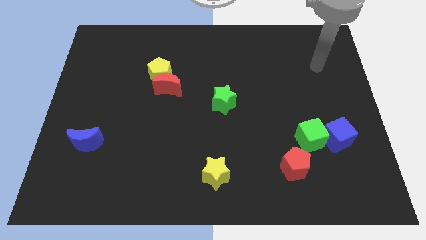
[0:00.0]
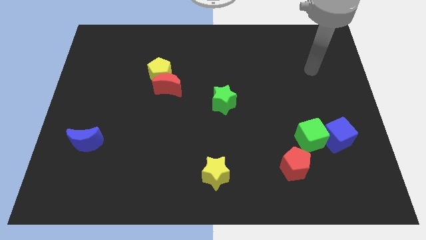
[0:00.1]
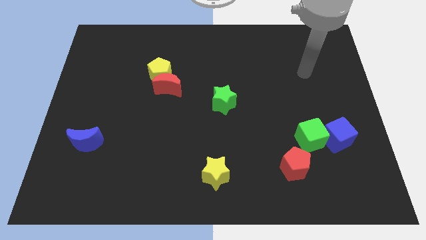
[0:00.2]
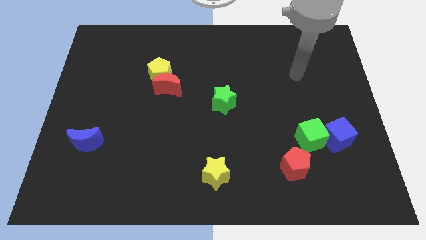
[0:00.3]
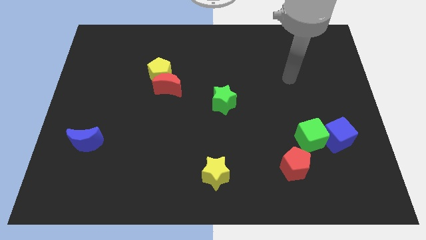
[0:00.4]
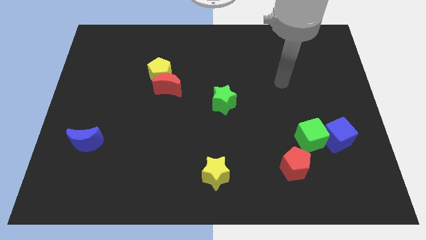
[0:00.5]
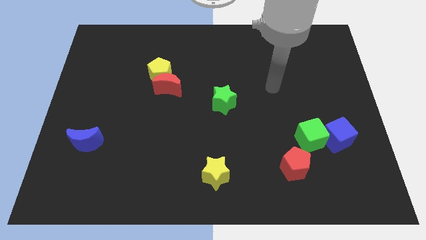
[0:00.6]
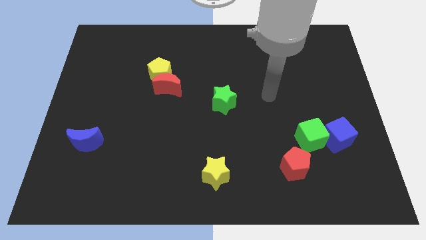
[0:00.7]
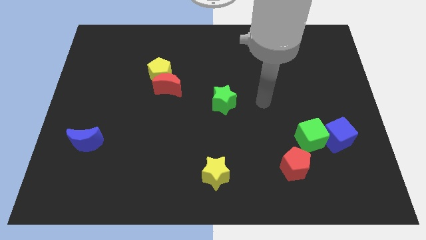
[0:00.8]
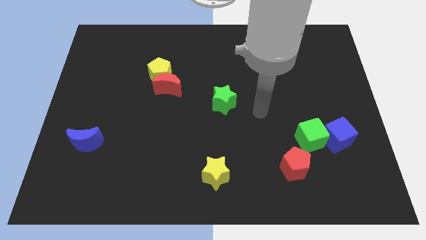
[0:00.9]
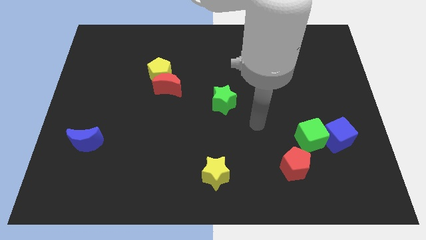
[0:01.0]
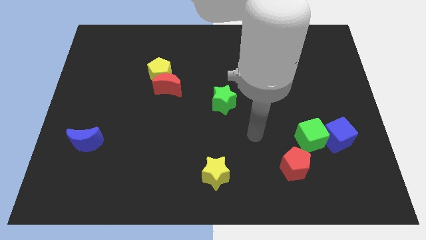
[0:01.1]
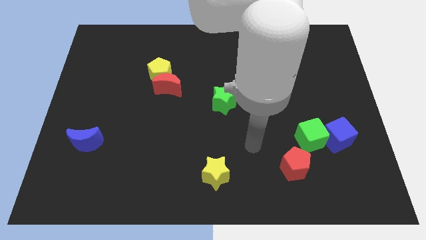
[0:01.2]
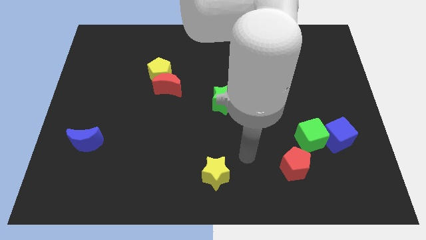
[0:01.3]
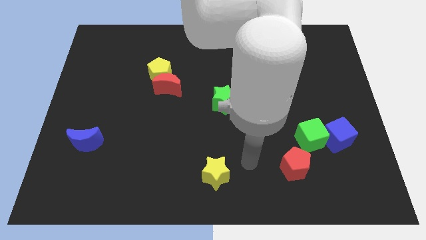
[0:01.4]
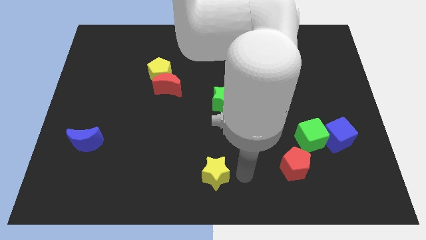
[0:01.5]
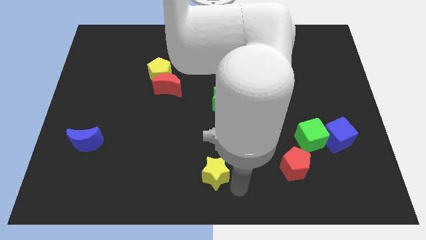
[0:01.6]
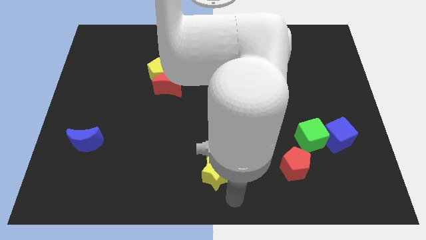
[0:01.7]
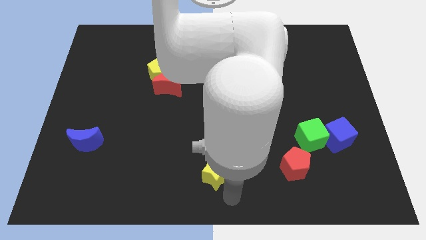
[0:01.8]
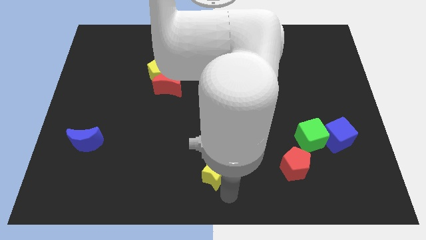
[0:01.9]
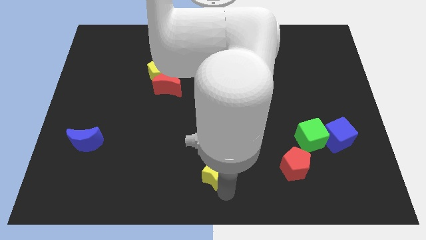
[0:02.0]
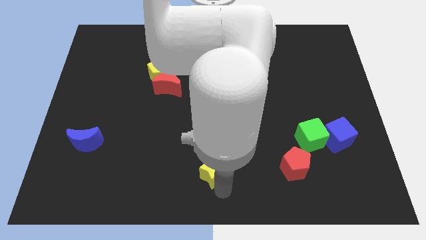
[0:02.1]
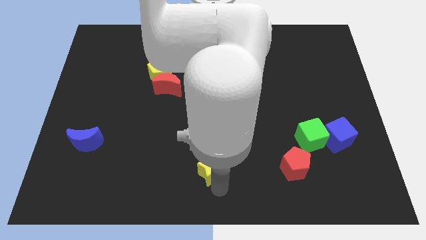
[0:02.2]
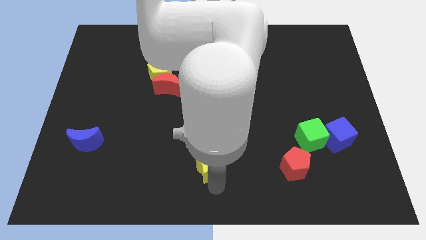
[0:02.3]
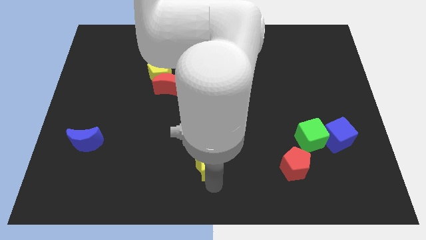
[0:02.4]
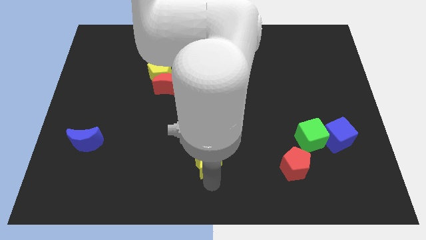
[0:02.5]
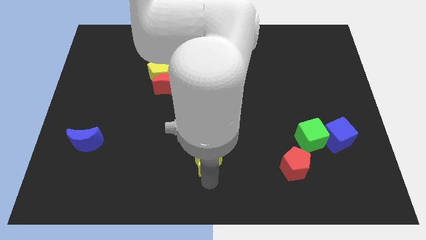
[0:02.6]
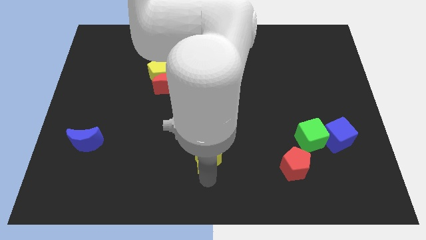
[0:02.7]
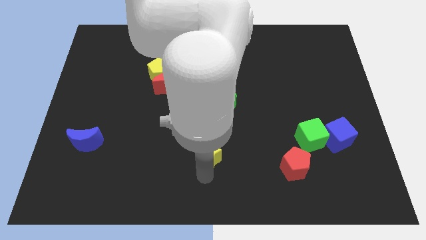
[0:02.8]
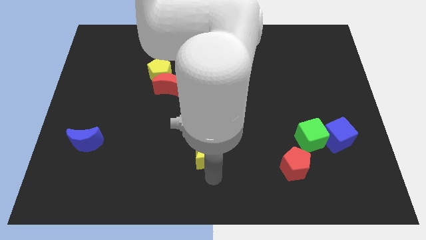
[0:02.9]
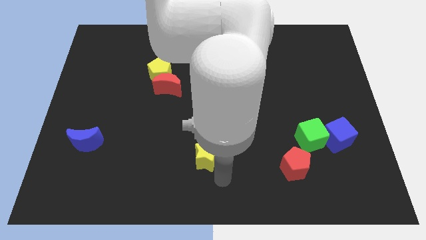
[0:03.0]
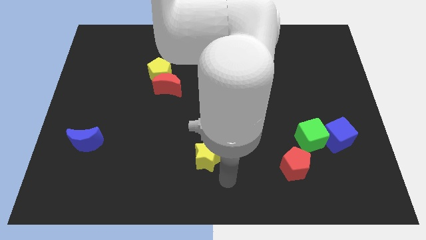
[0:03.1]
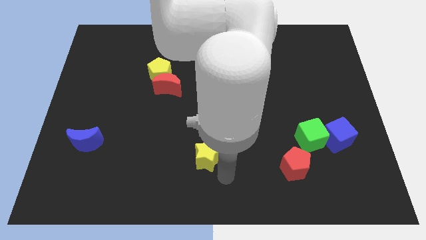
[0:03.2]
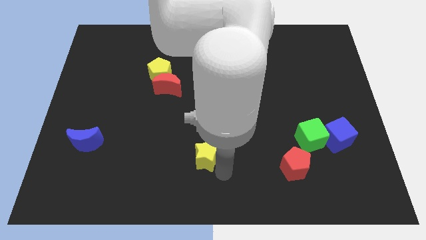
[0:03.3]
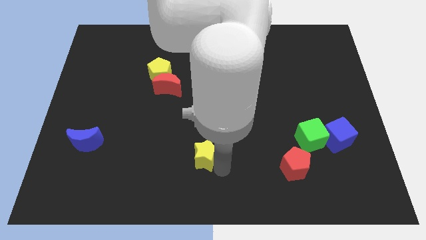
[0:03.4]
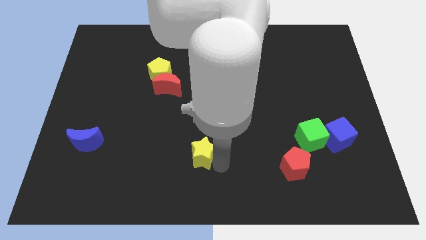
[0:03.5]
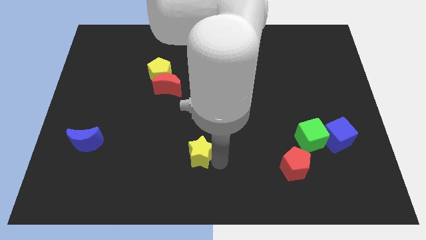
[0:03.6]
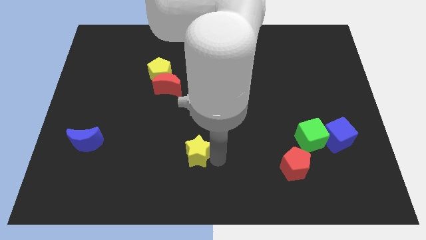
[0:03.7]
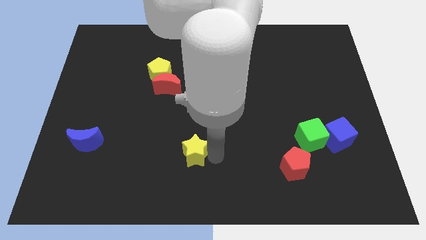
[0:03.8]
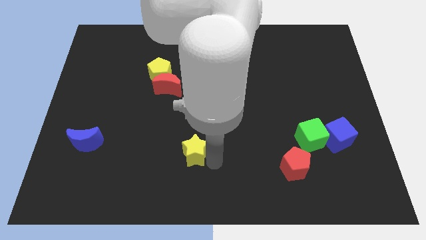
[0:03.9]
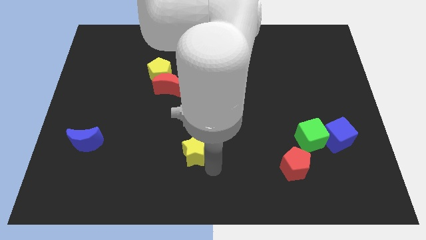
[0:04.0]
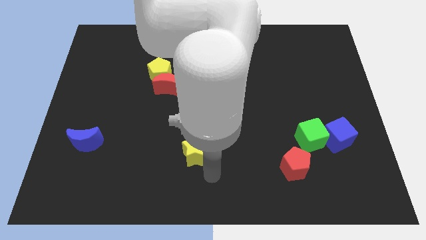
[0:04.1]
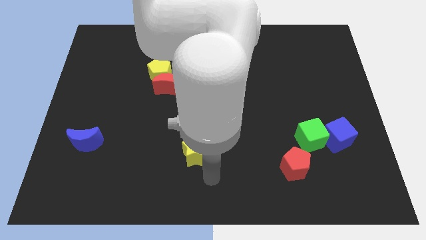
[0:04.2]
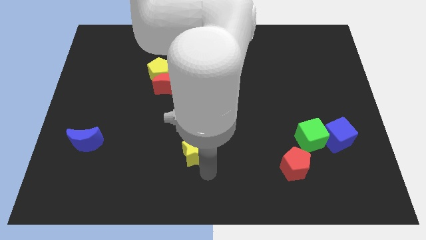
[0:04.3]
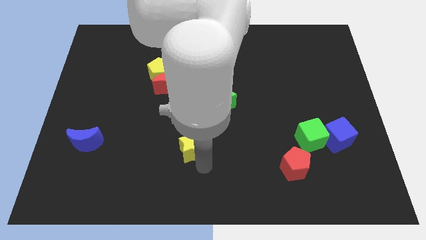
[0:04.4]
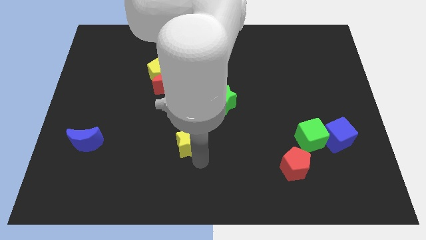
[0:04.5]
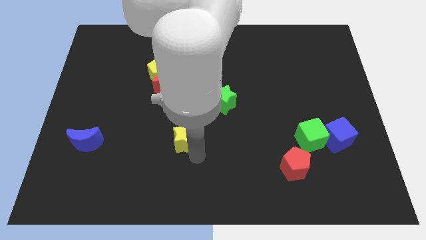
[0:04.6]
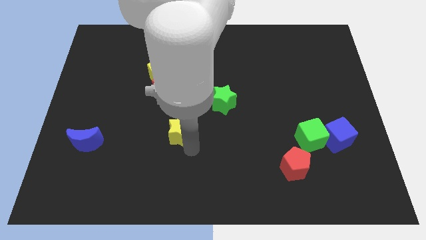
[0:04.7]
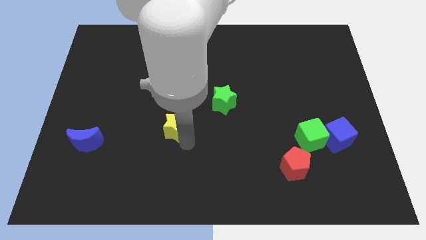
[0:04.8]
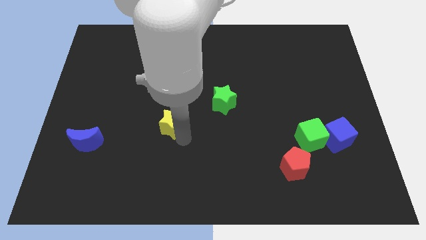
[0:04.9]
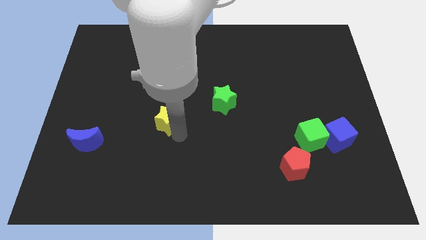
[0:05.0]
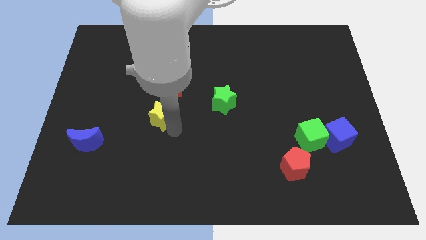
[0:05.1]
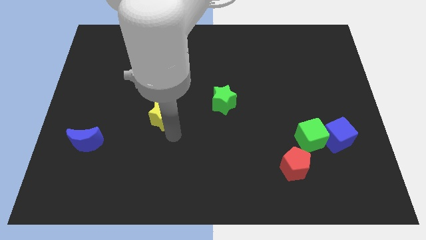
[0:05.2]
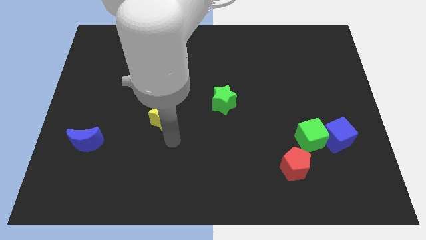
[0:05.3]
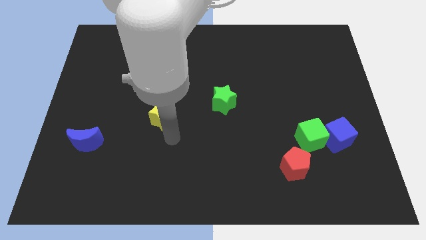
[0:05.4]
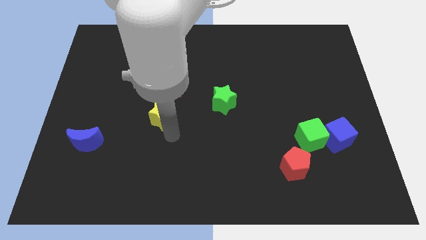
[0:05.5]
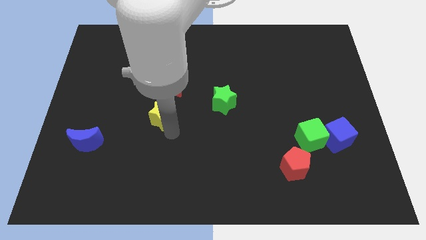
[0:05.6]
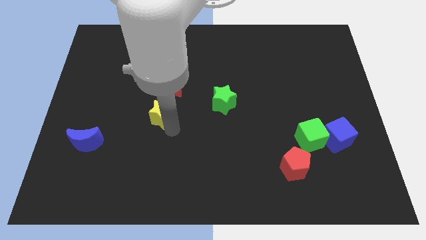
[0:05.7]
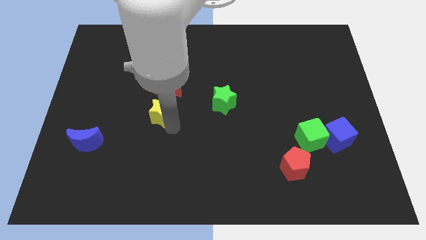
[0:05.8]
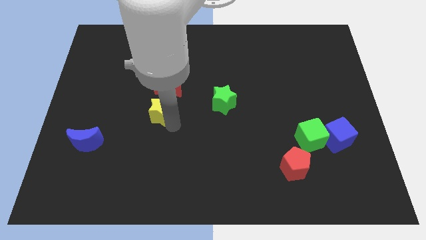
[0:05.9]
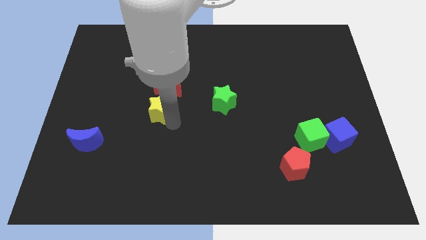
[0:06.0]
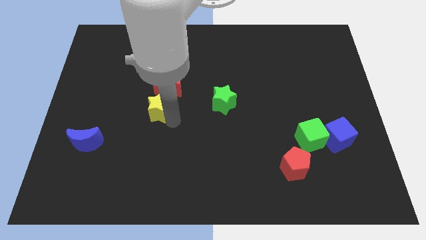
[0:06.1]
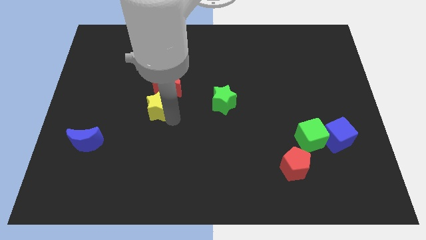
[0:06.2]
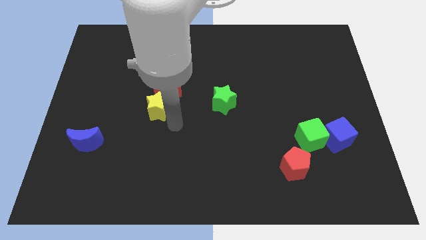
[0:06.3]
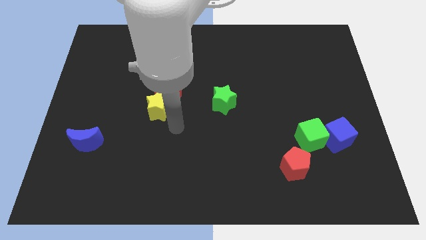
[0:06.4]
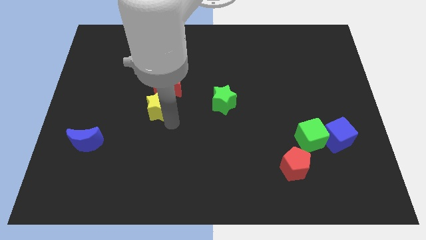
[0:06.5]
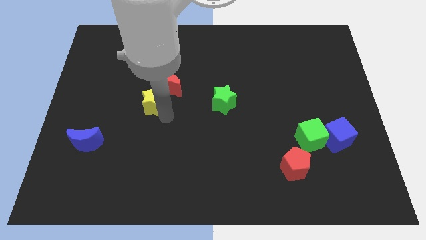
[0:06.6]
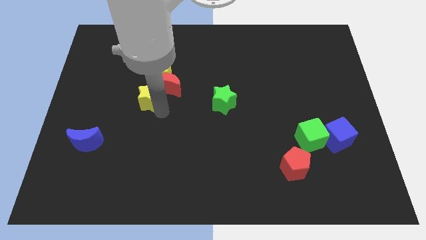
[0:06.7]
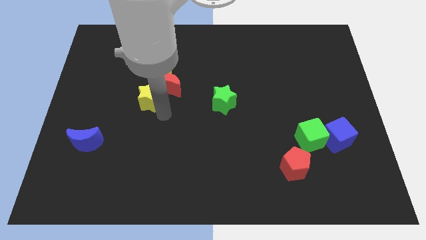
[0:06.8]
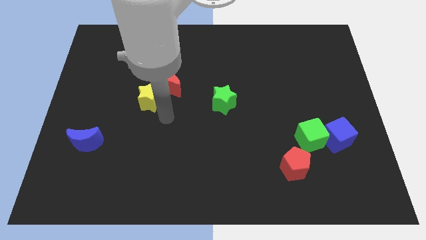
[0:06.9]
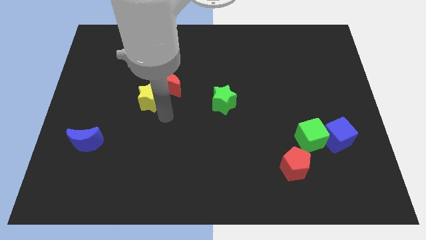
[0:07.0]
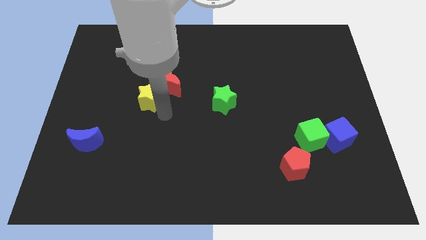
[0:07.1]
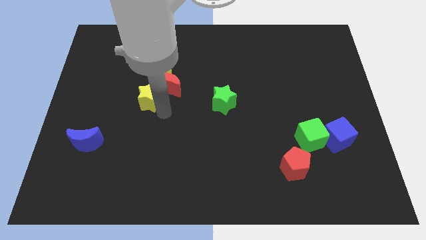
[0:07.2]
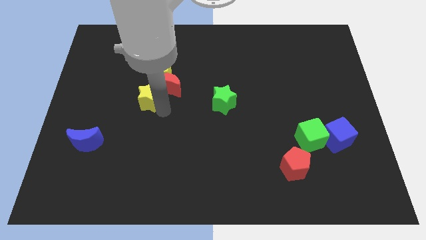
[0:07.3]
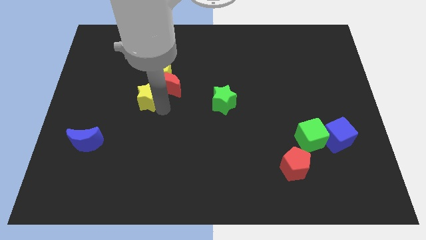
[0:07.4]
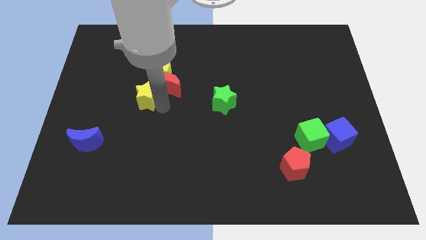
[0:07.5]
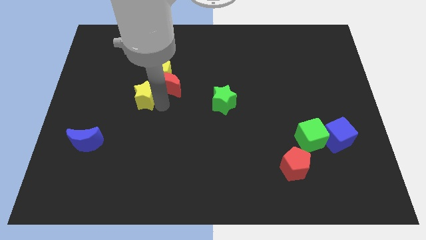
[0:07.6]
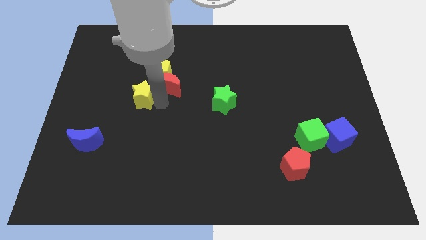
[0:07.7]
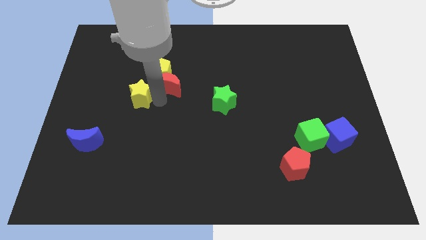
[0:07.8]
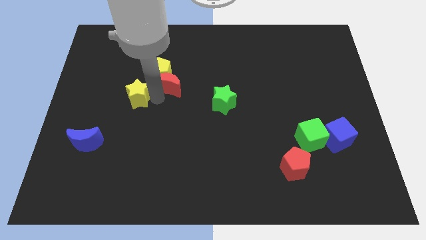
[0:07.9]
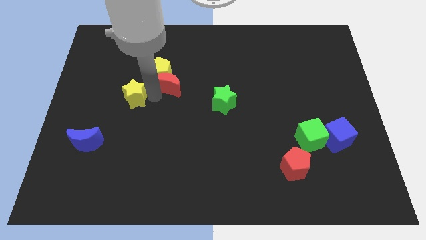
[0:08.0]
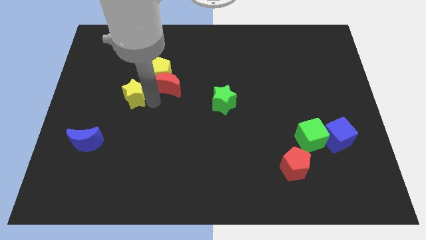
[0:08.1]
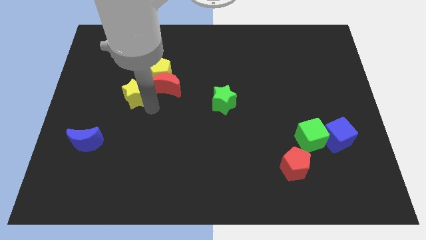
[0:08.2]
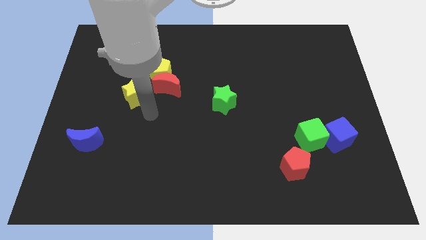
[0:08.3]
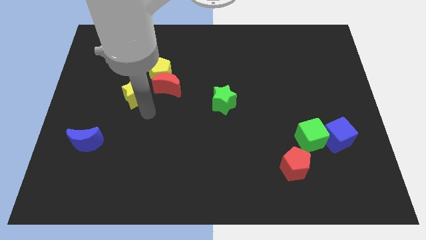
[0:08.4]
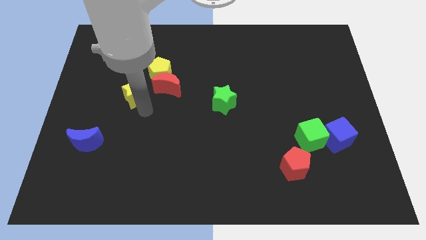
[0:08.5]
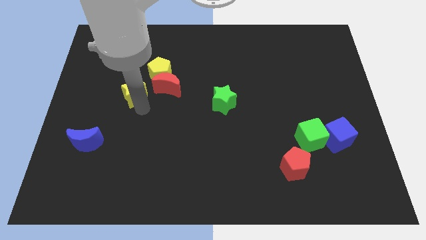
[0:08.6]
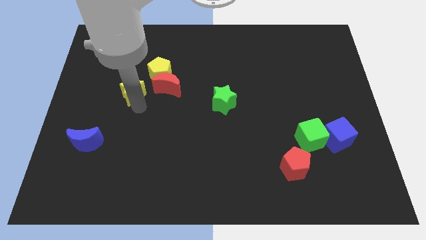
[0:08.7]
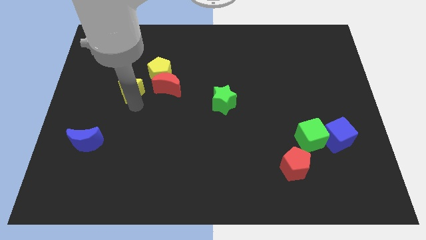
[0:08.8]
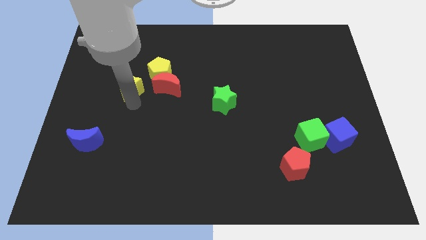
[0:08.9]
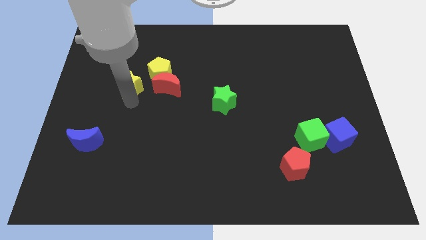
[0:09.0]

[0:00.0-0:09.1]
push the yellow star to the left of the yellow pentagon
